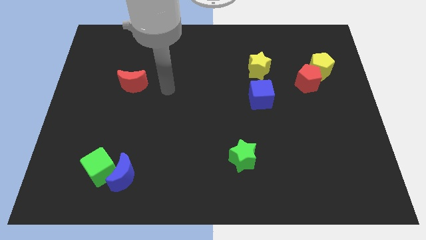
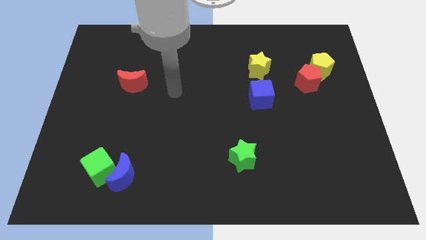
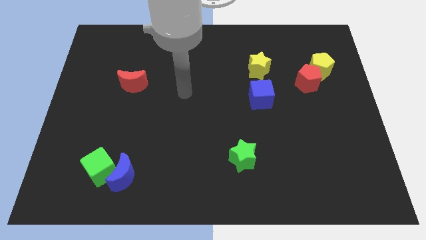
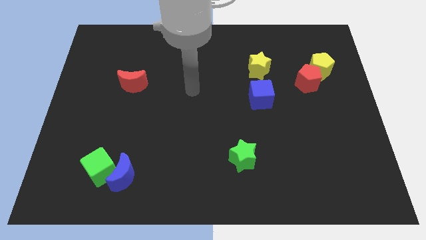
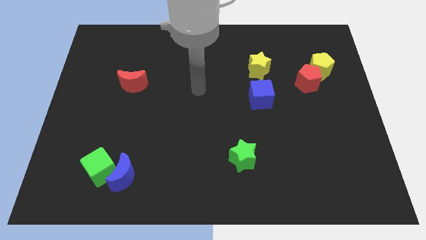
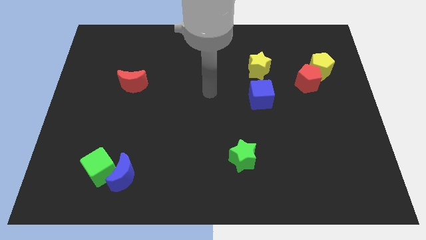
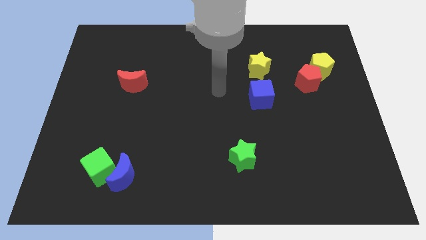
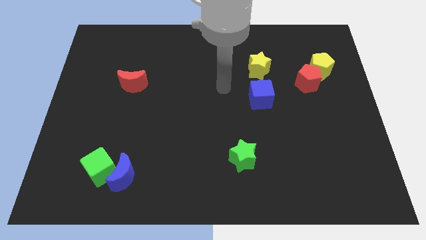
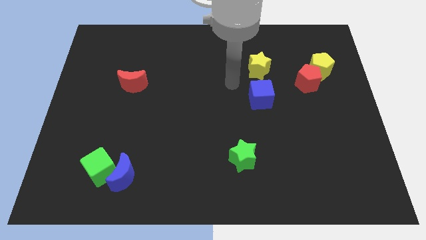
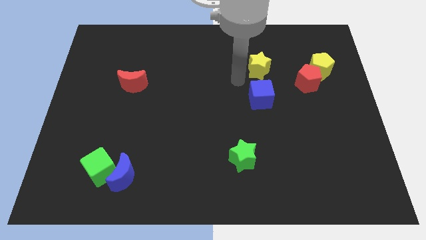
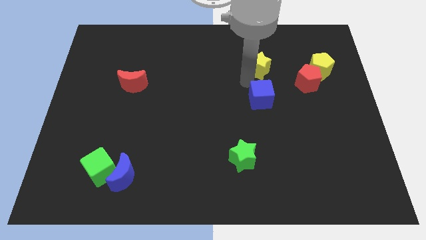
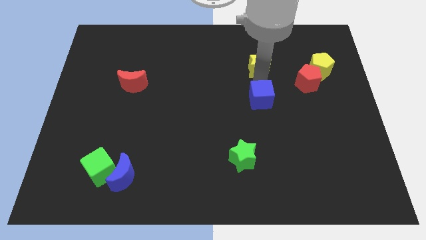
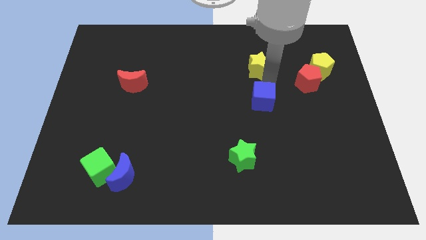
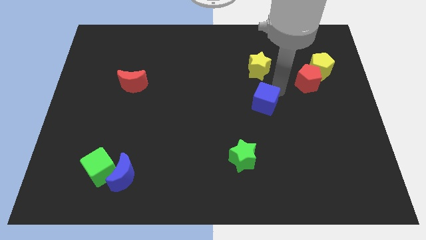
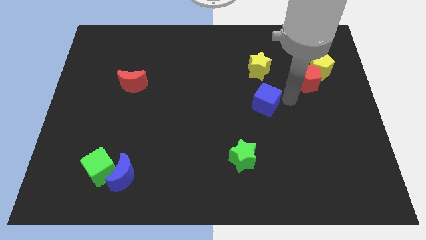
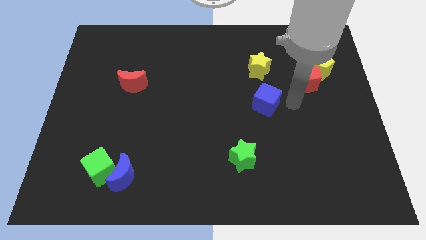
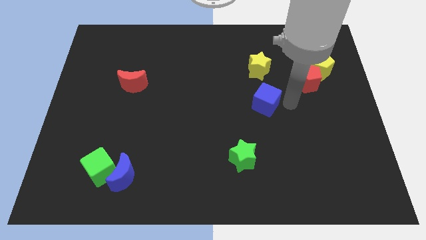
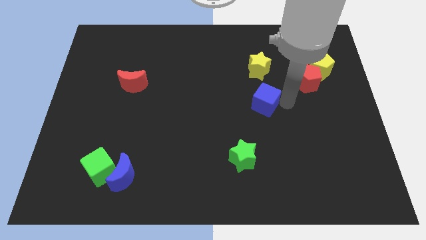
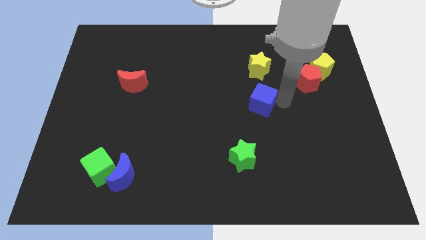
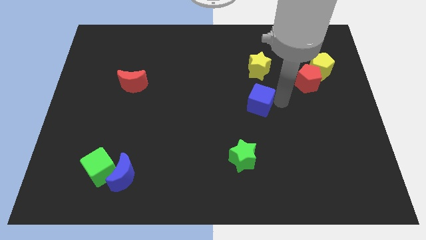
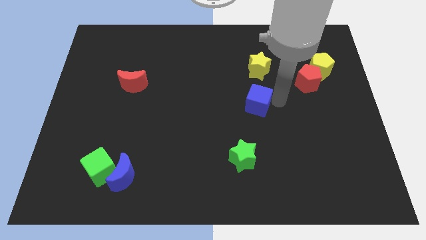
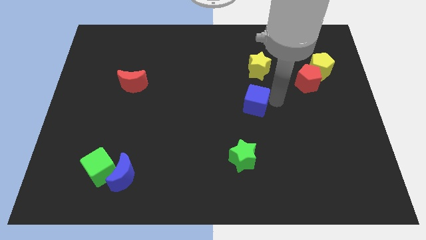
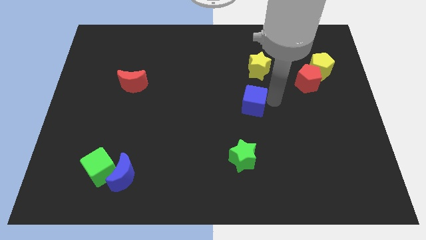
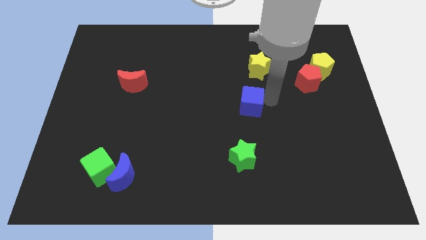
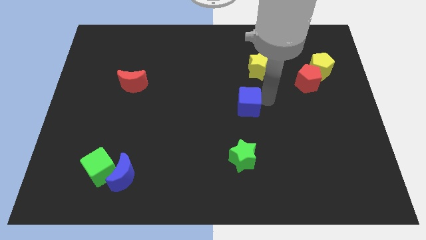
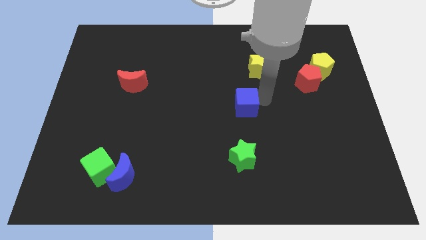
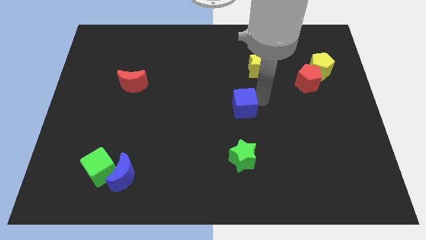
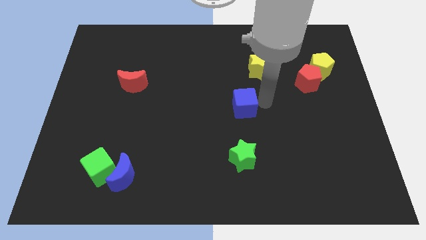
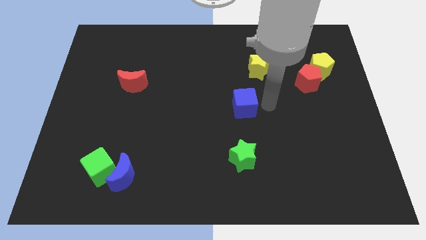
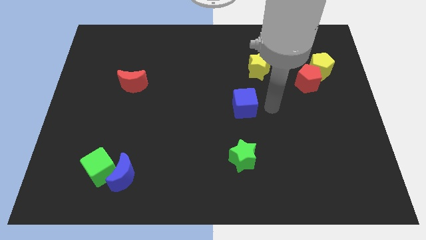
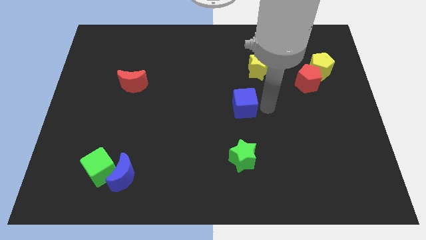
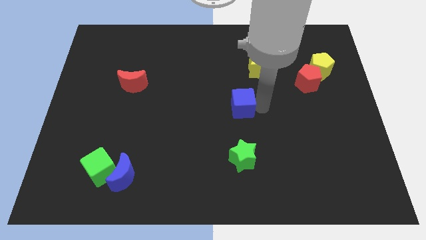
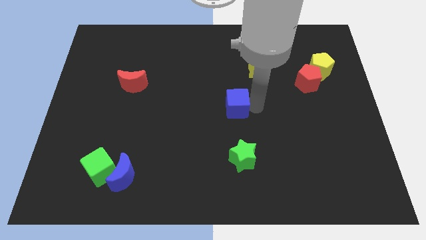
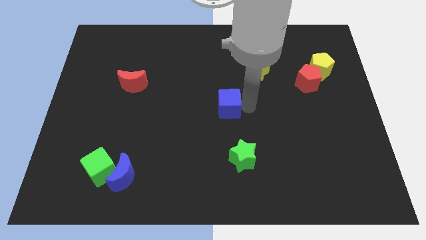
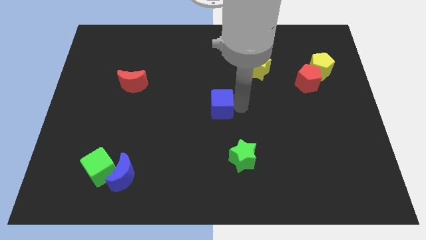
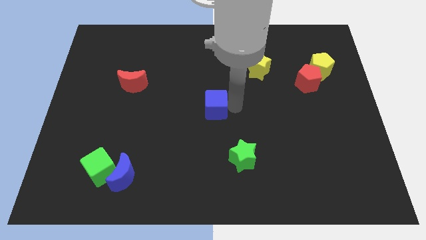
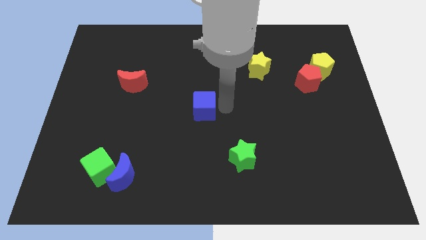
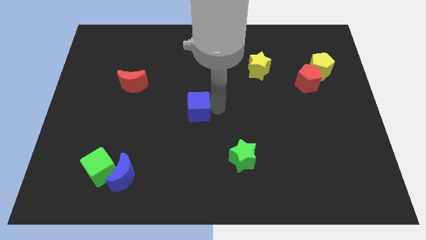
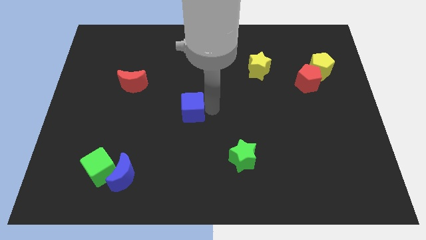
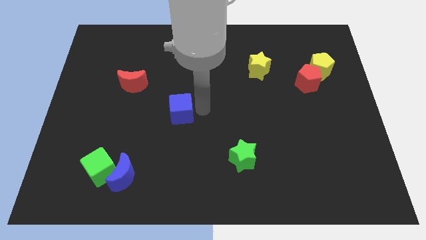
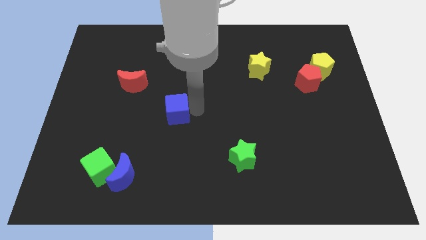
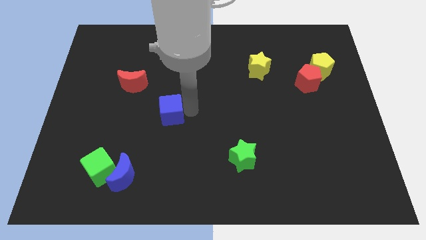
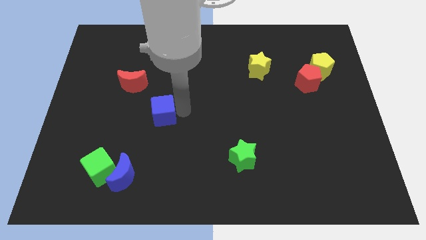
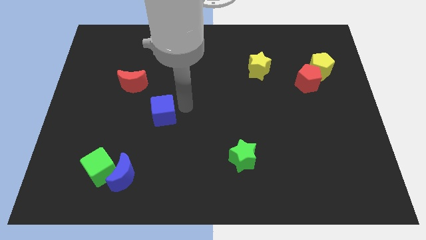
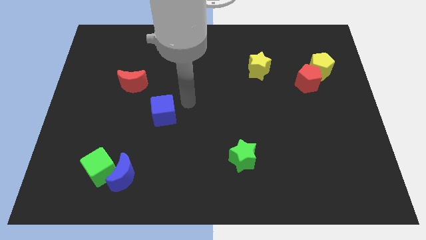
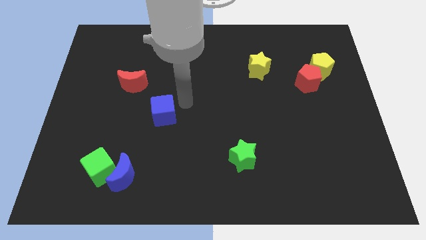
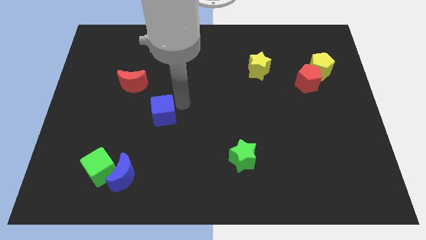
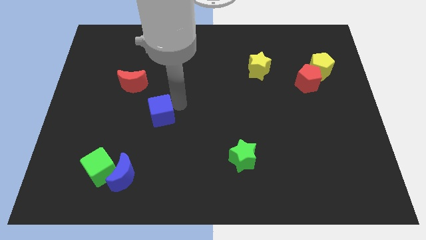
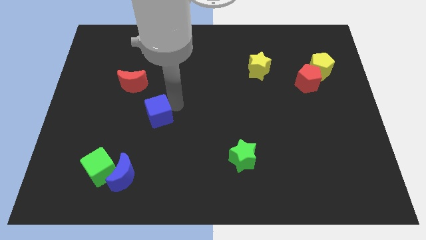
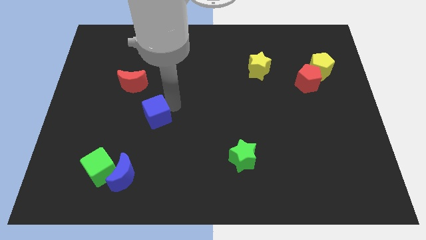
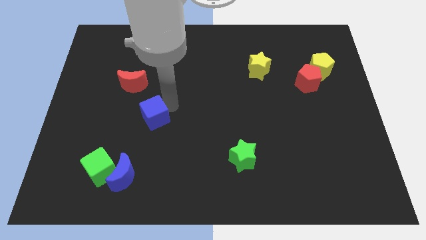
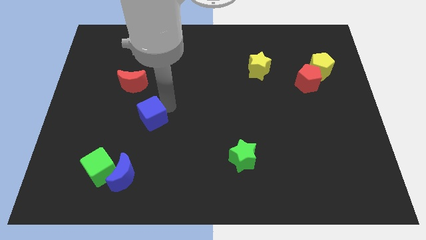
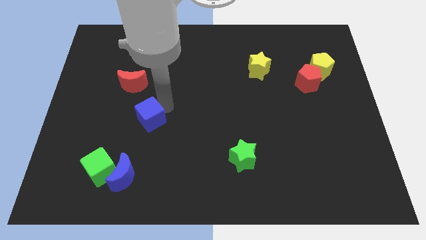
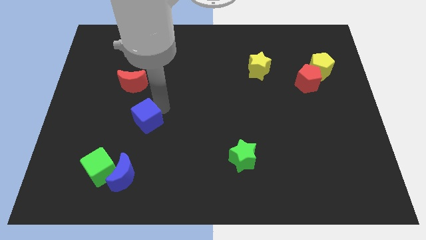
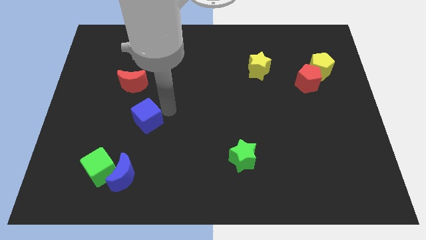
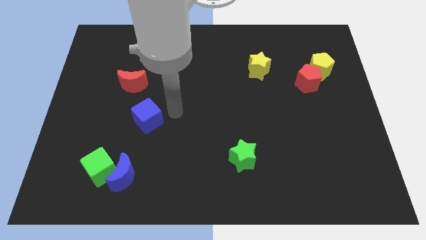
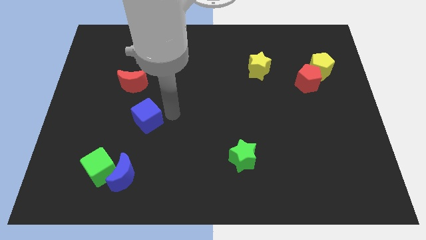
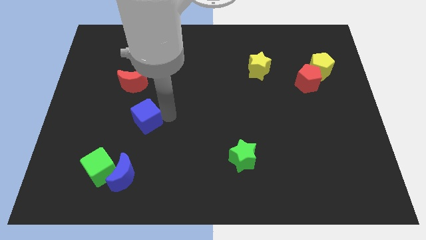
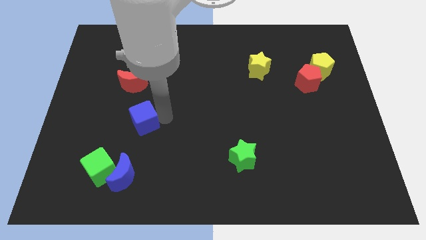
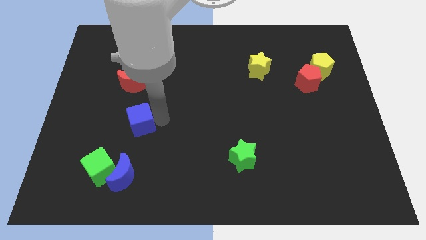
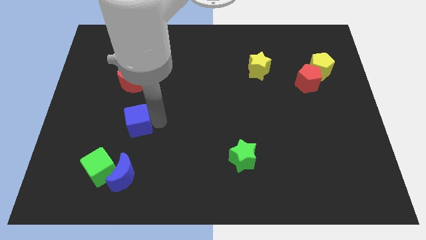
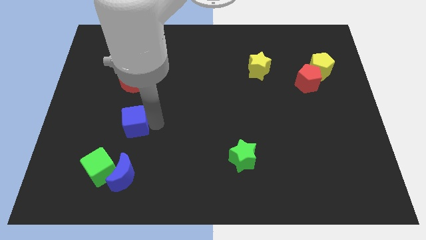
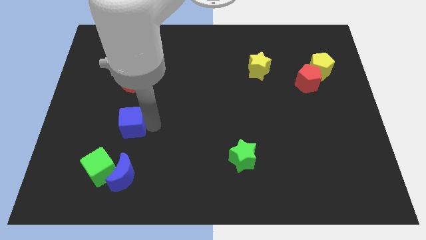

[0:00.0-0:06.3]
put the blue cube to the top side of the green cube
